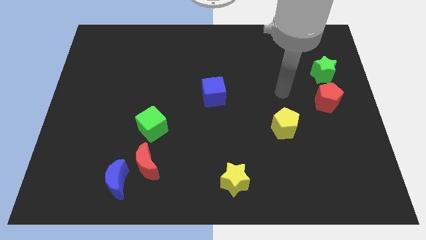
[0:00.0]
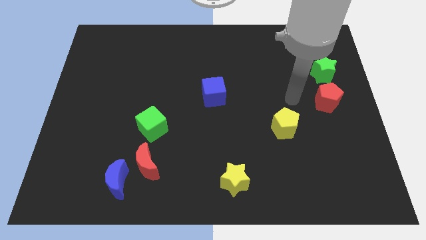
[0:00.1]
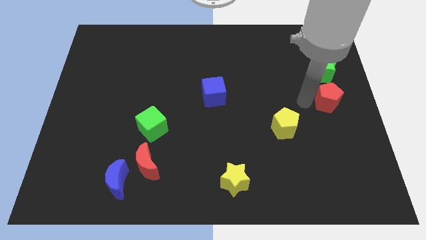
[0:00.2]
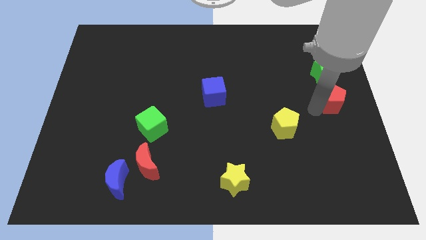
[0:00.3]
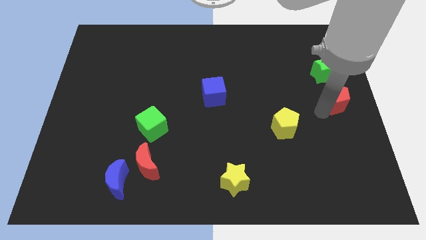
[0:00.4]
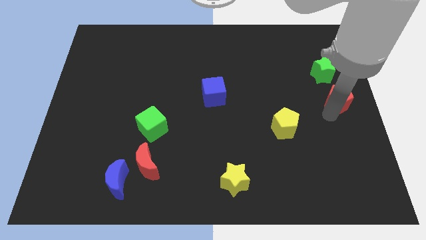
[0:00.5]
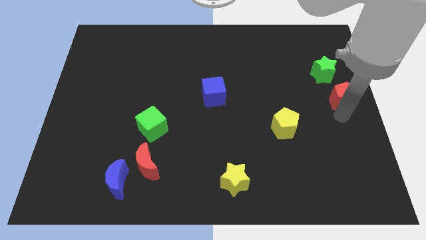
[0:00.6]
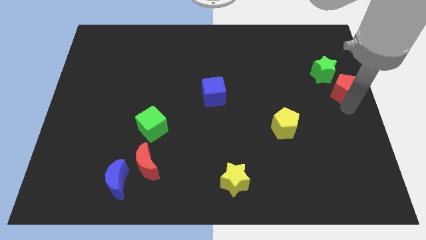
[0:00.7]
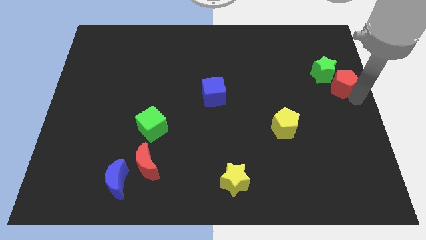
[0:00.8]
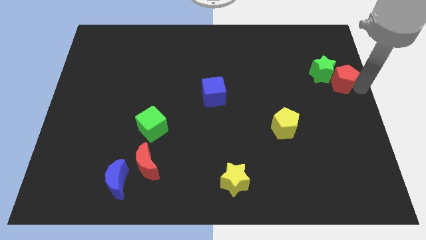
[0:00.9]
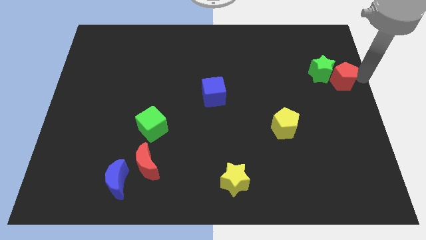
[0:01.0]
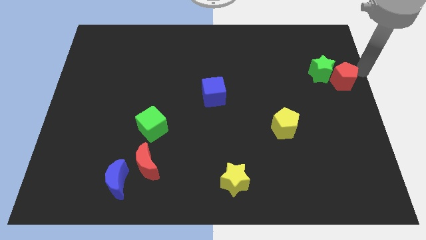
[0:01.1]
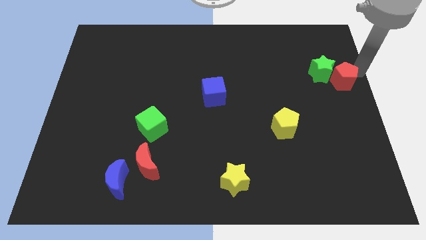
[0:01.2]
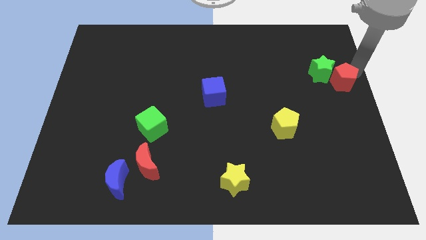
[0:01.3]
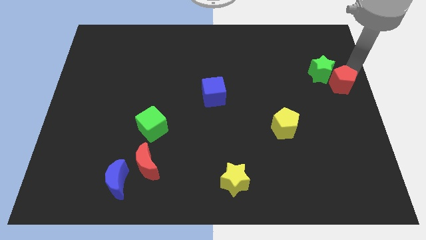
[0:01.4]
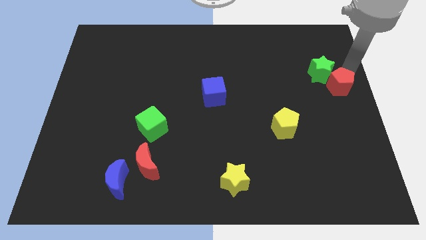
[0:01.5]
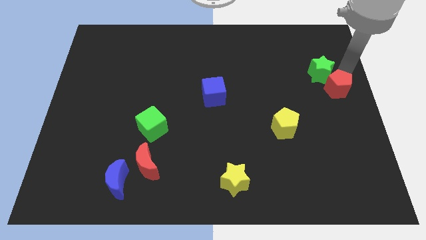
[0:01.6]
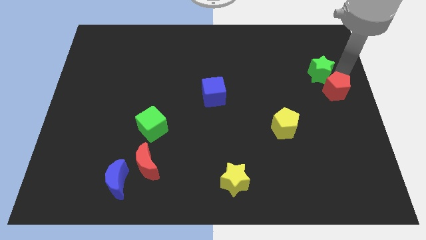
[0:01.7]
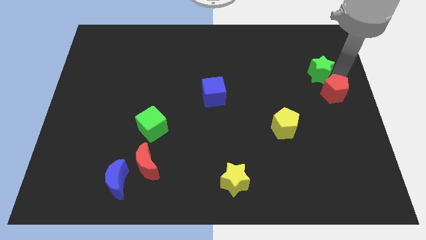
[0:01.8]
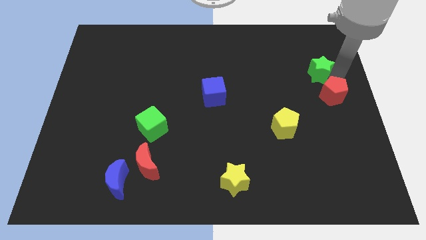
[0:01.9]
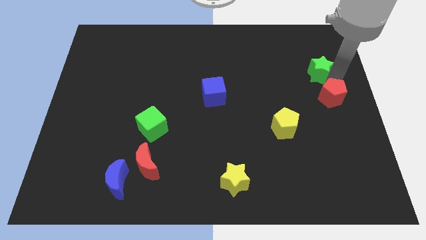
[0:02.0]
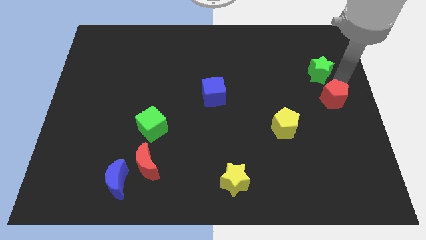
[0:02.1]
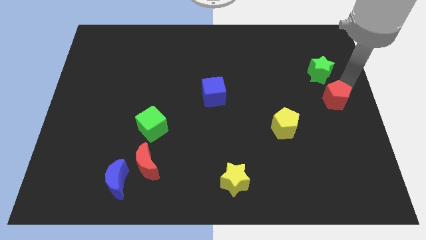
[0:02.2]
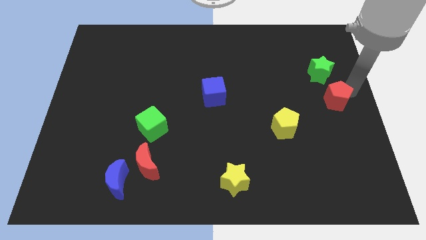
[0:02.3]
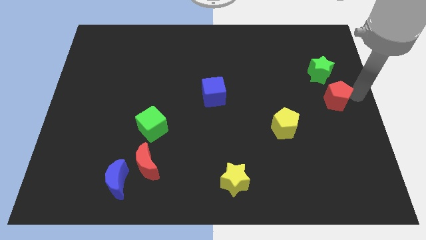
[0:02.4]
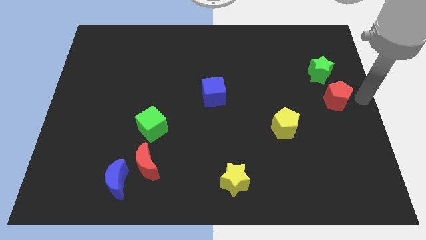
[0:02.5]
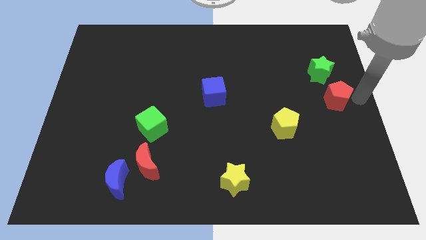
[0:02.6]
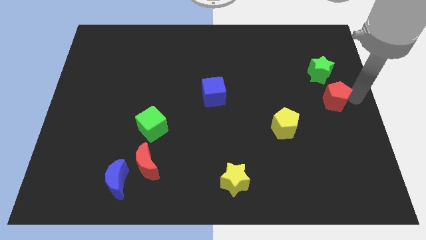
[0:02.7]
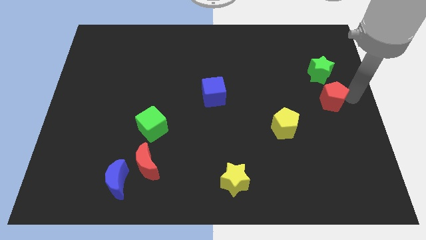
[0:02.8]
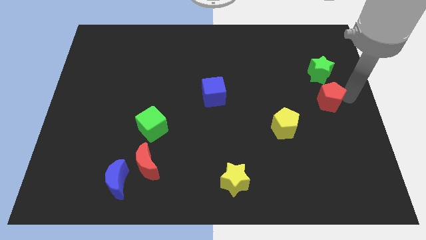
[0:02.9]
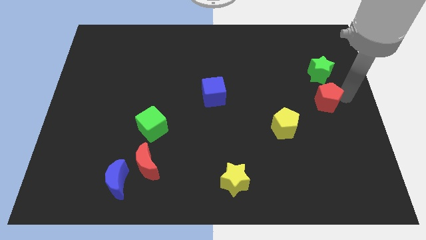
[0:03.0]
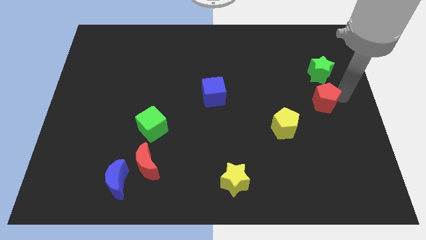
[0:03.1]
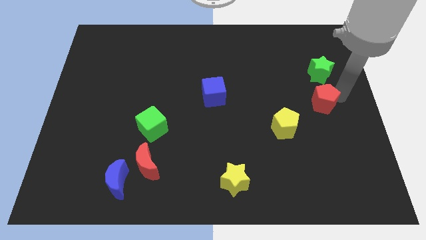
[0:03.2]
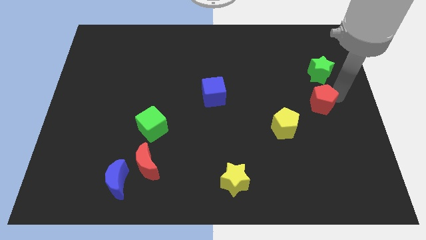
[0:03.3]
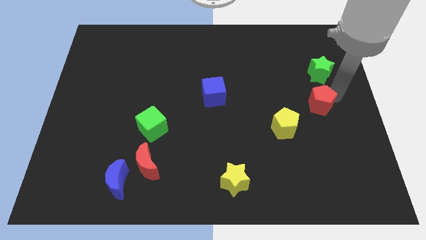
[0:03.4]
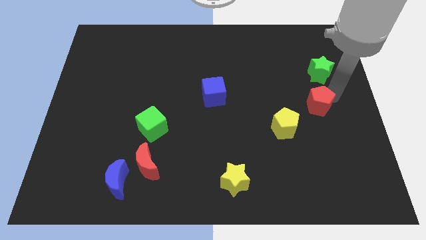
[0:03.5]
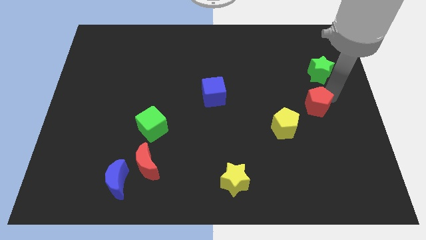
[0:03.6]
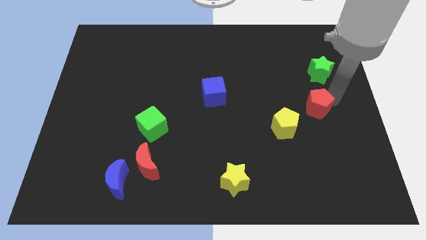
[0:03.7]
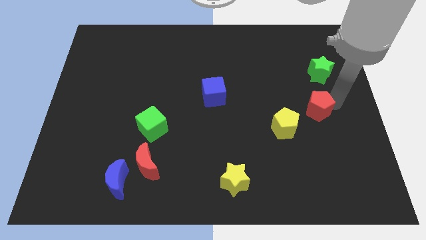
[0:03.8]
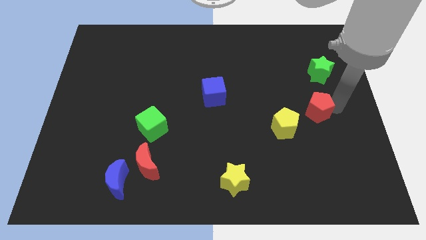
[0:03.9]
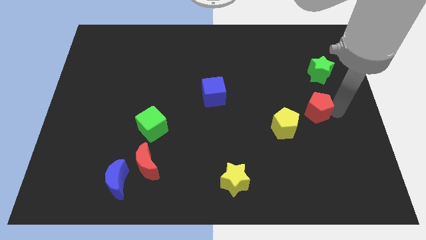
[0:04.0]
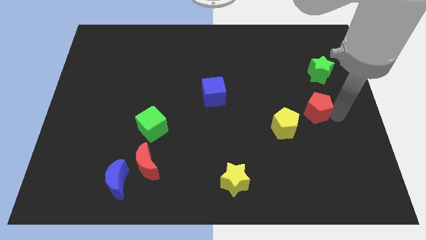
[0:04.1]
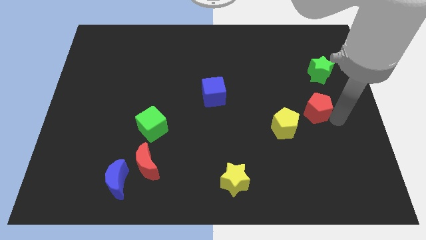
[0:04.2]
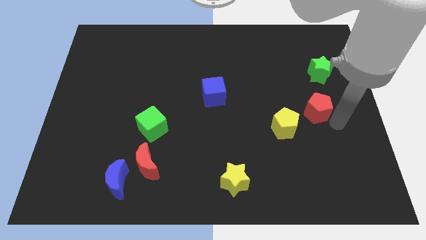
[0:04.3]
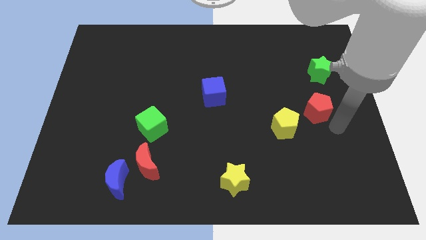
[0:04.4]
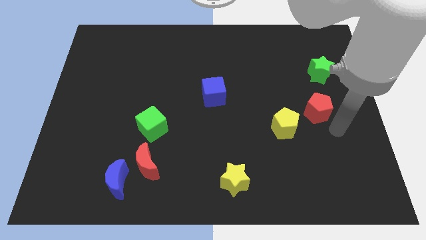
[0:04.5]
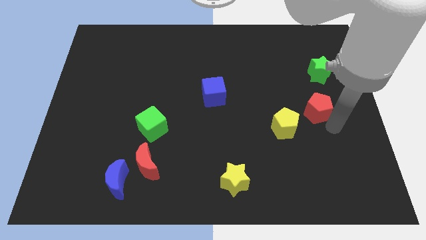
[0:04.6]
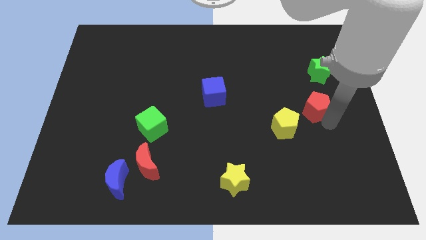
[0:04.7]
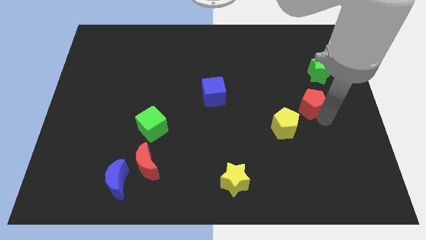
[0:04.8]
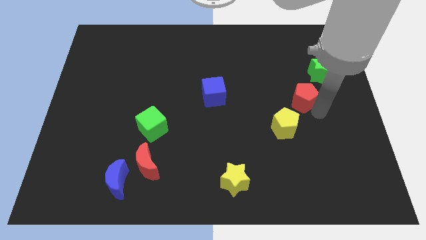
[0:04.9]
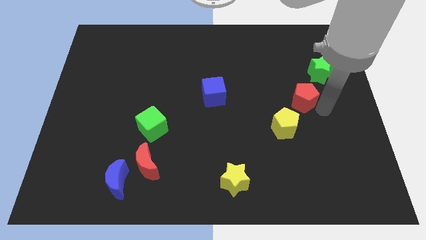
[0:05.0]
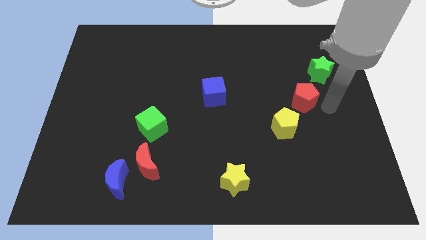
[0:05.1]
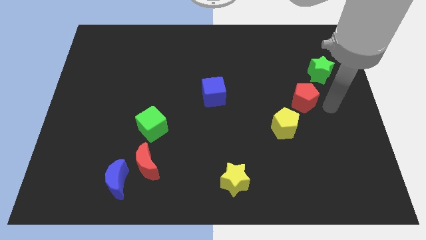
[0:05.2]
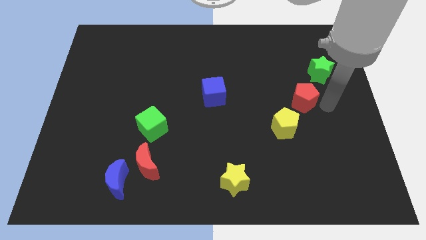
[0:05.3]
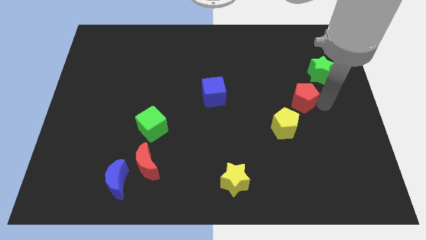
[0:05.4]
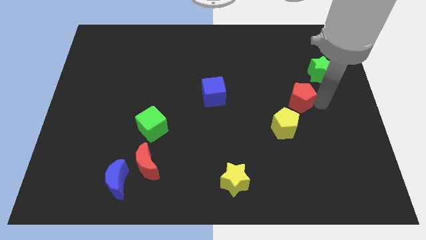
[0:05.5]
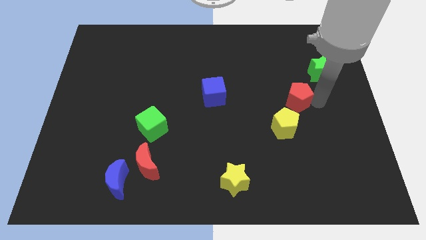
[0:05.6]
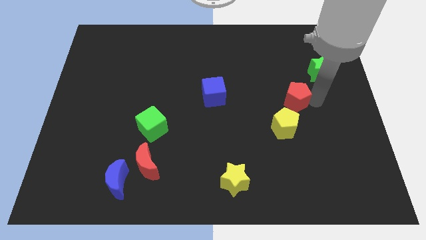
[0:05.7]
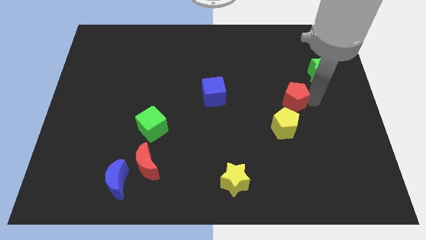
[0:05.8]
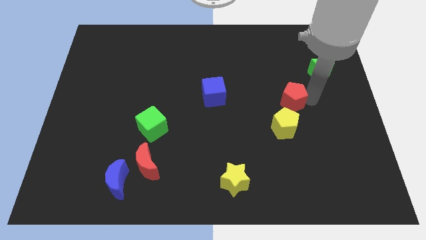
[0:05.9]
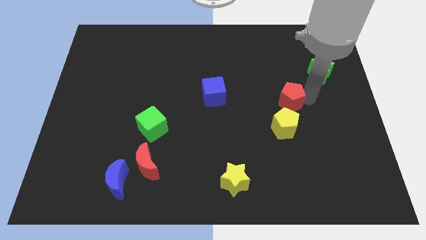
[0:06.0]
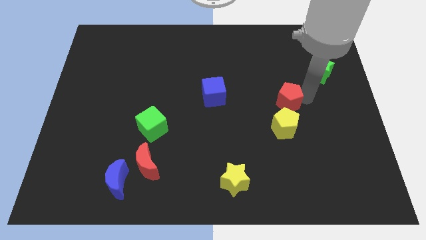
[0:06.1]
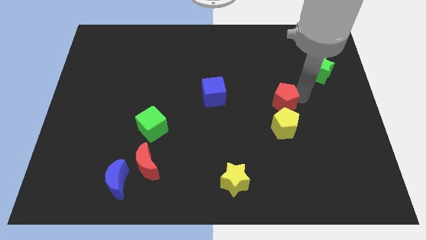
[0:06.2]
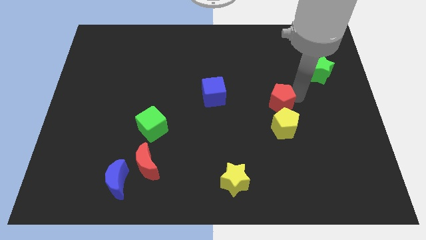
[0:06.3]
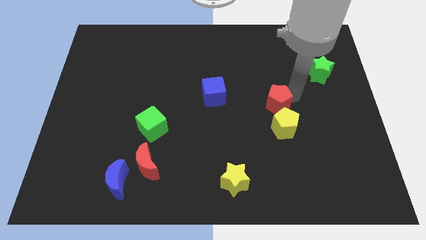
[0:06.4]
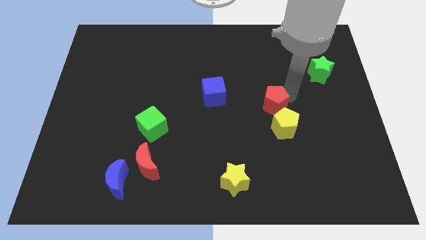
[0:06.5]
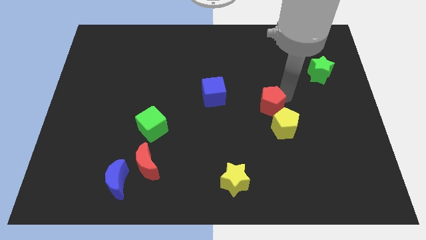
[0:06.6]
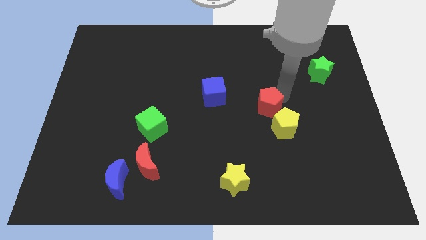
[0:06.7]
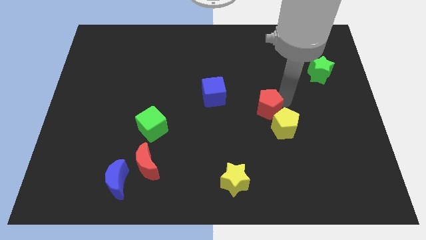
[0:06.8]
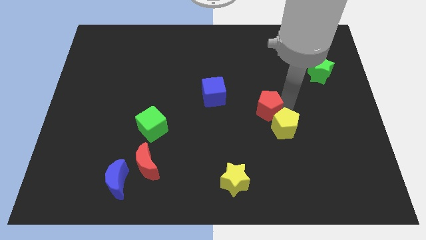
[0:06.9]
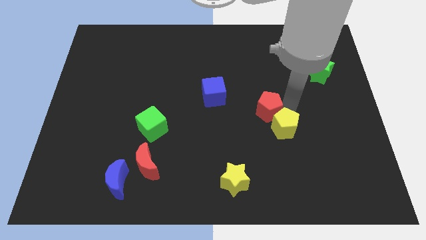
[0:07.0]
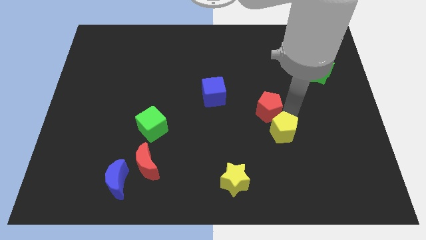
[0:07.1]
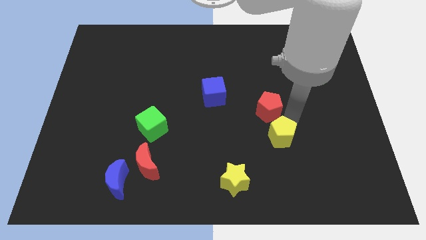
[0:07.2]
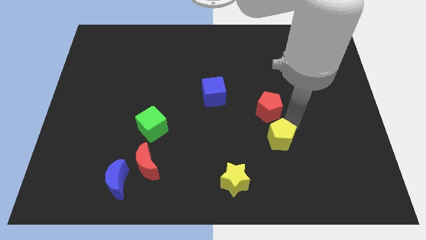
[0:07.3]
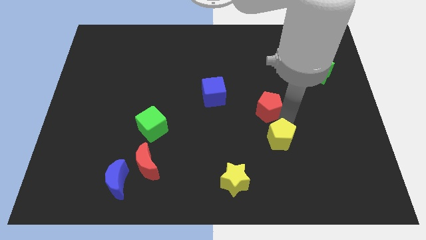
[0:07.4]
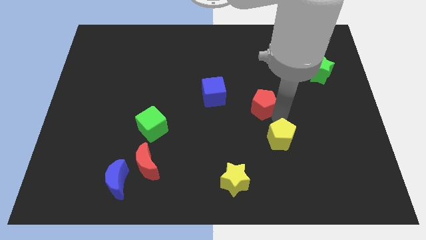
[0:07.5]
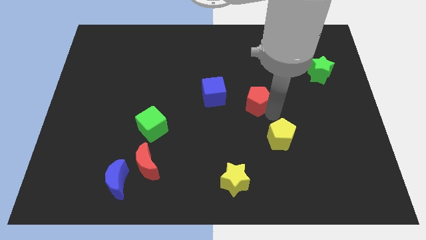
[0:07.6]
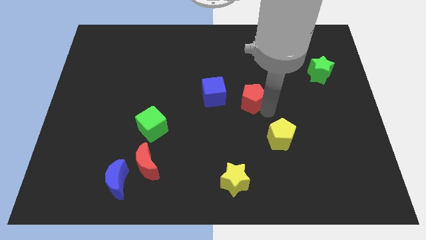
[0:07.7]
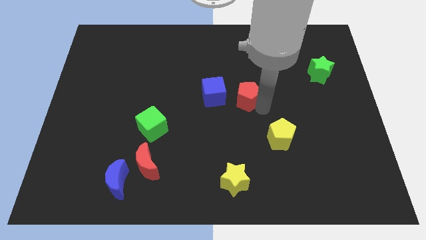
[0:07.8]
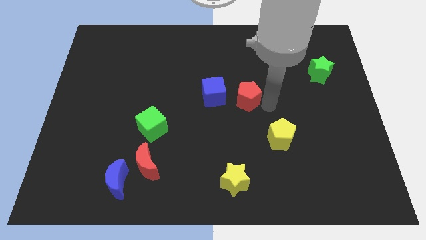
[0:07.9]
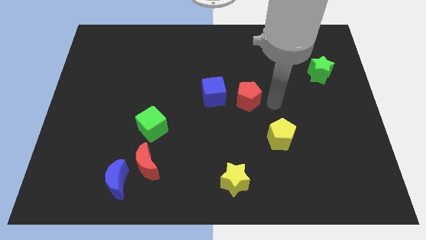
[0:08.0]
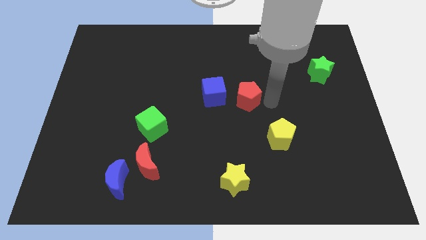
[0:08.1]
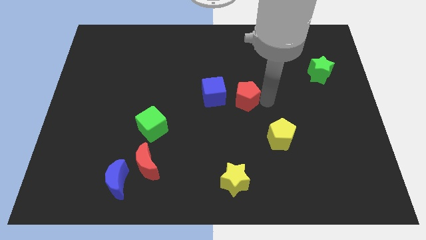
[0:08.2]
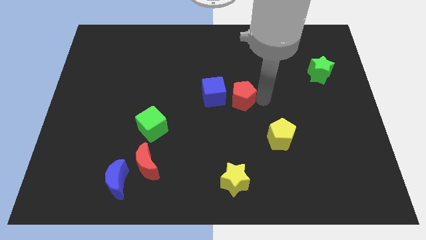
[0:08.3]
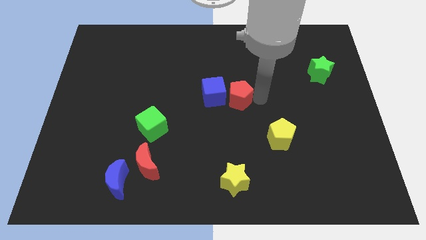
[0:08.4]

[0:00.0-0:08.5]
move the red pentagon towards the blue cube
